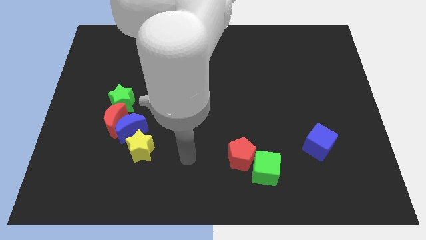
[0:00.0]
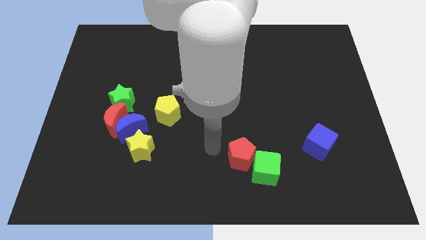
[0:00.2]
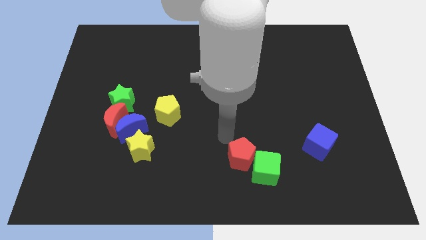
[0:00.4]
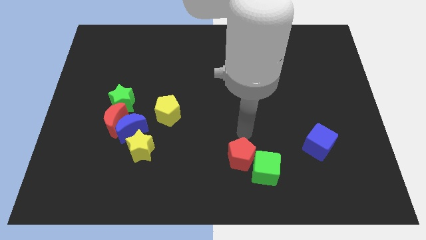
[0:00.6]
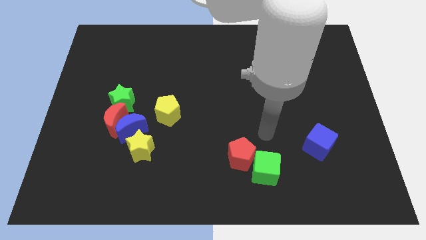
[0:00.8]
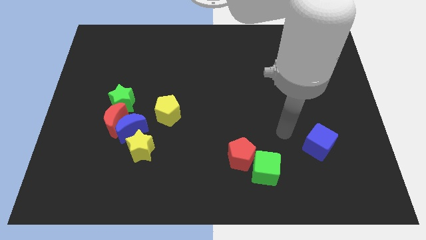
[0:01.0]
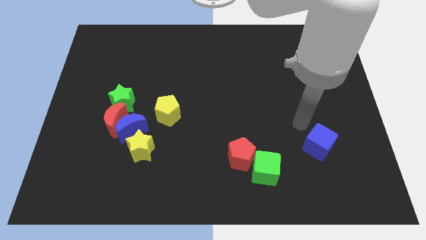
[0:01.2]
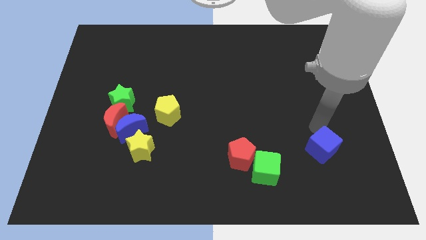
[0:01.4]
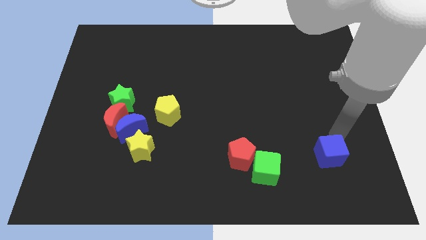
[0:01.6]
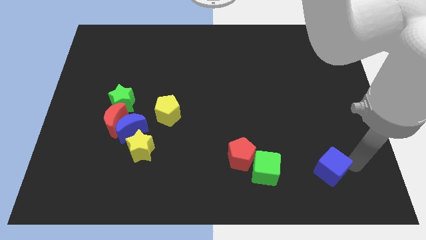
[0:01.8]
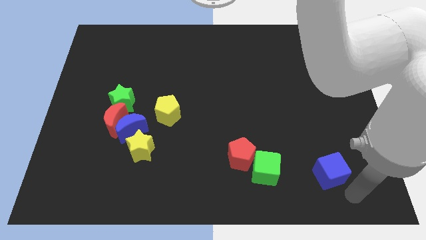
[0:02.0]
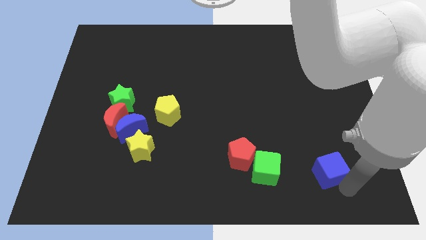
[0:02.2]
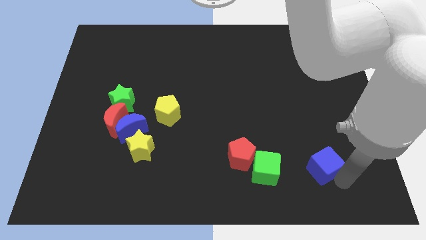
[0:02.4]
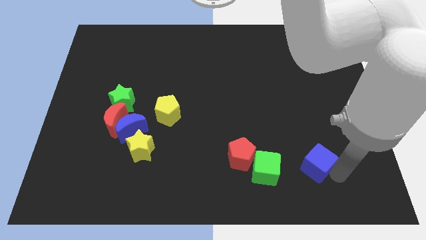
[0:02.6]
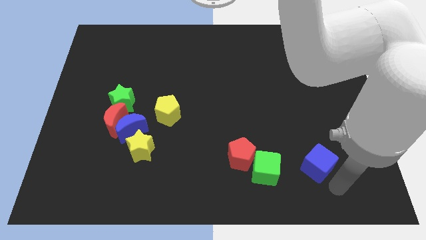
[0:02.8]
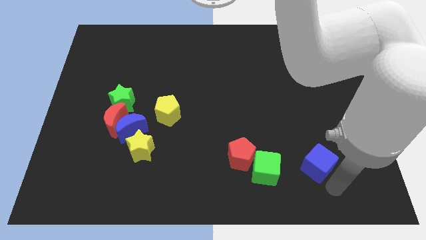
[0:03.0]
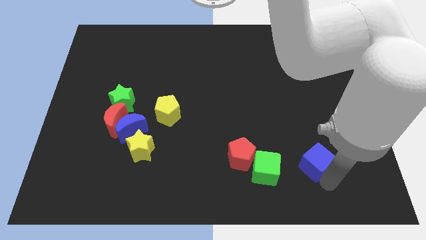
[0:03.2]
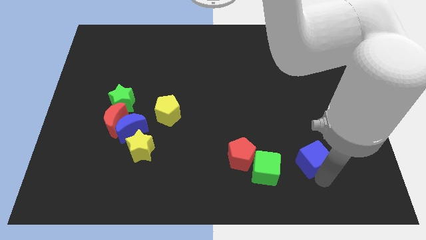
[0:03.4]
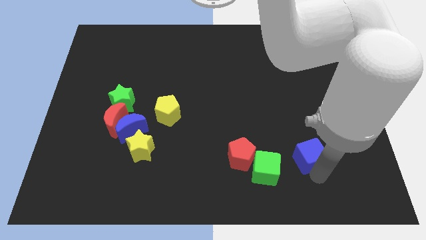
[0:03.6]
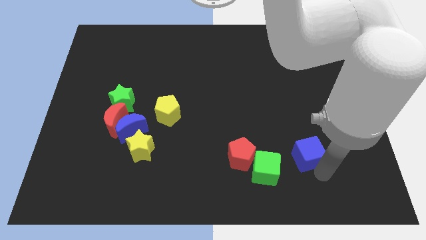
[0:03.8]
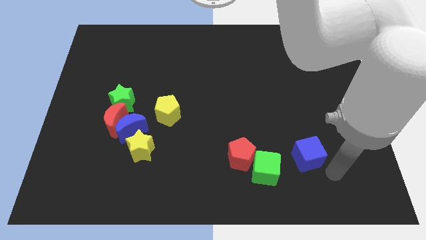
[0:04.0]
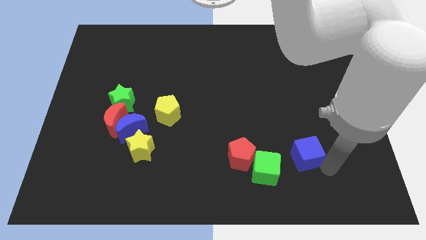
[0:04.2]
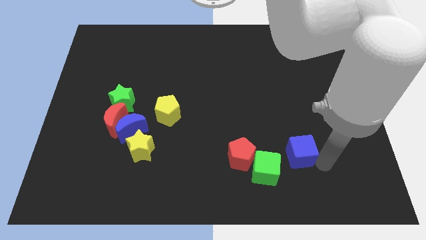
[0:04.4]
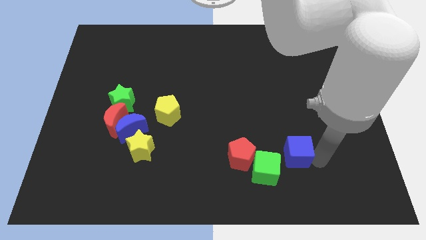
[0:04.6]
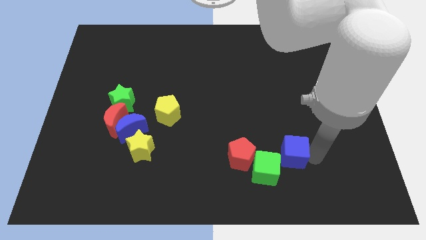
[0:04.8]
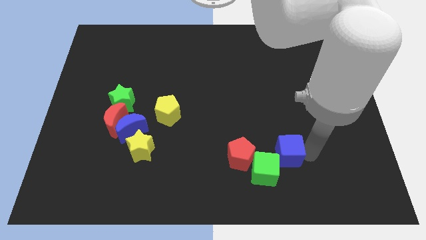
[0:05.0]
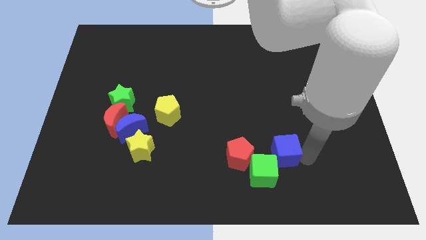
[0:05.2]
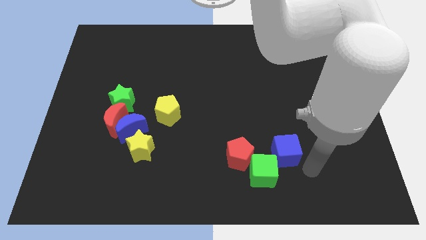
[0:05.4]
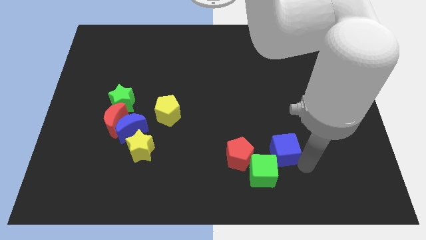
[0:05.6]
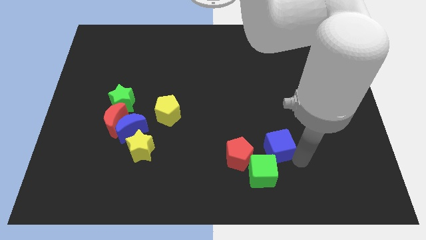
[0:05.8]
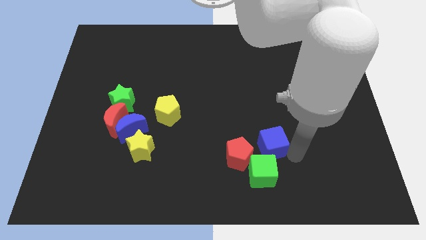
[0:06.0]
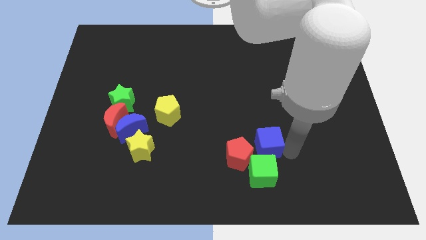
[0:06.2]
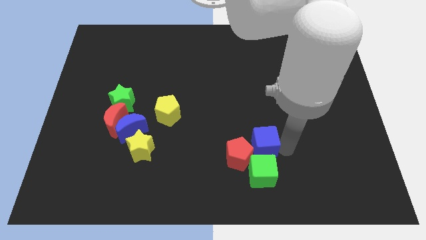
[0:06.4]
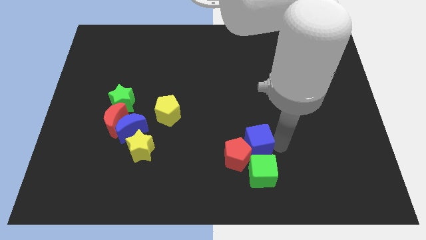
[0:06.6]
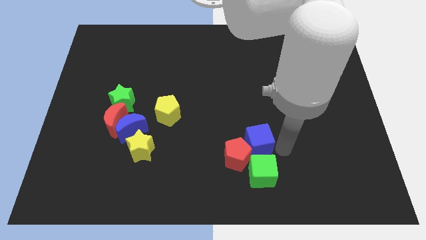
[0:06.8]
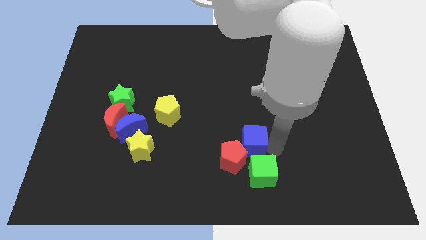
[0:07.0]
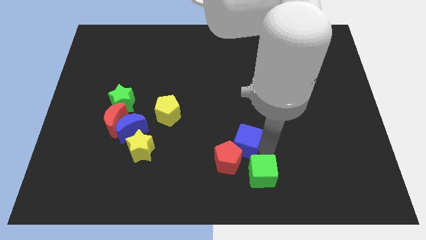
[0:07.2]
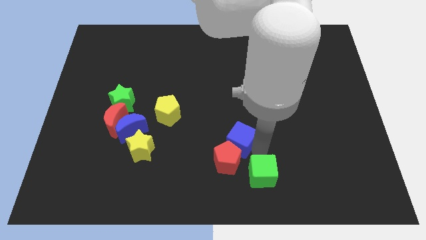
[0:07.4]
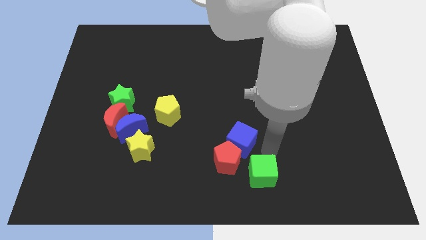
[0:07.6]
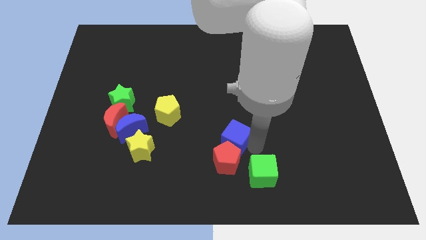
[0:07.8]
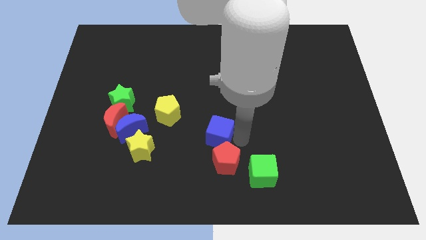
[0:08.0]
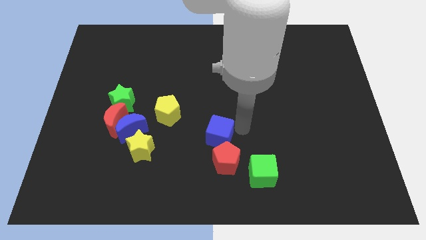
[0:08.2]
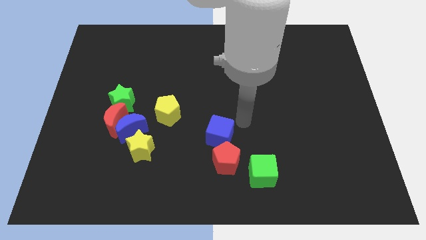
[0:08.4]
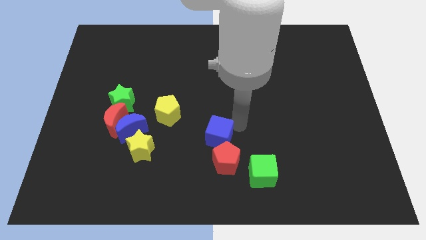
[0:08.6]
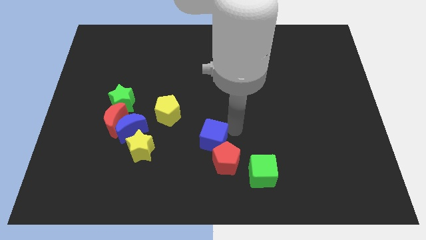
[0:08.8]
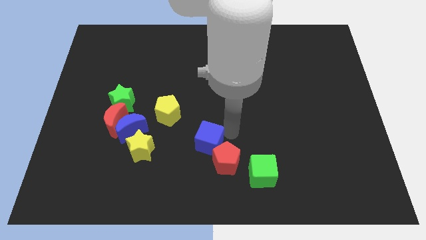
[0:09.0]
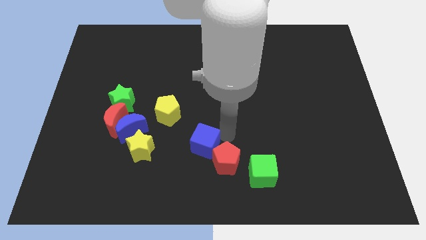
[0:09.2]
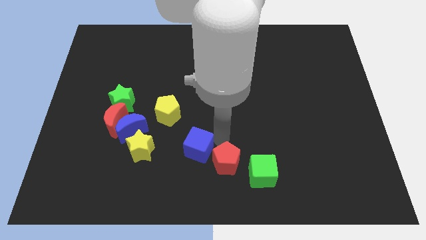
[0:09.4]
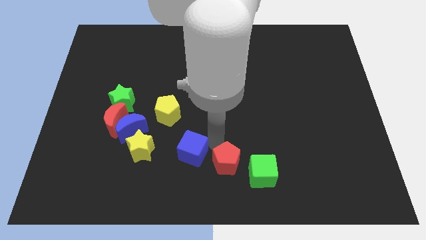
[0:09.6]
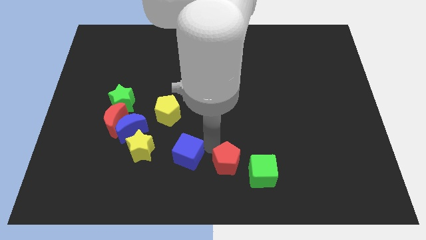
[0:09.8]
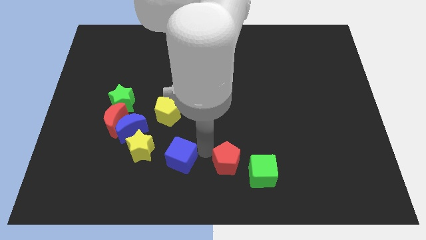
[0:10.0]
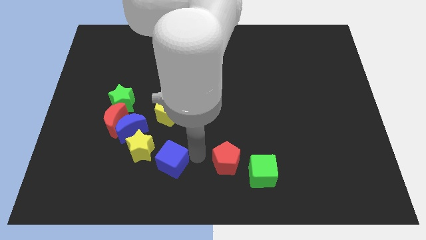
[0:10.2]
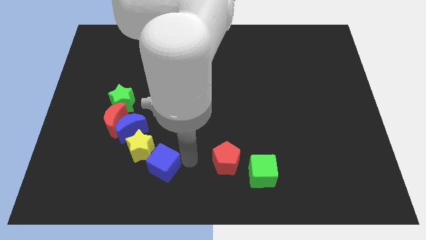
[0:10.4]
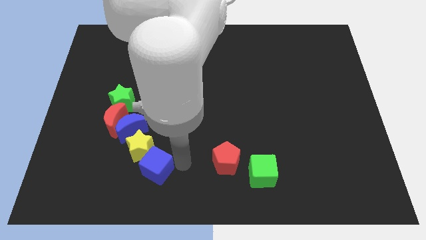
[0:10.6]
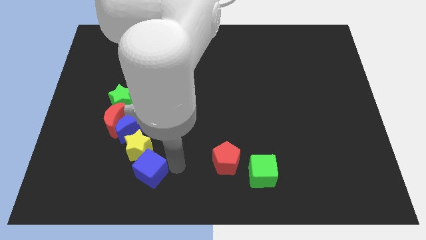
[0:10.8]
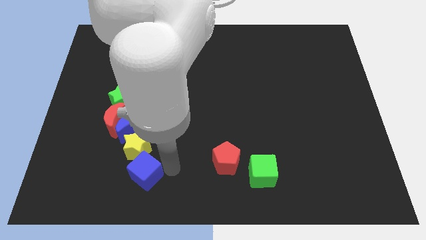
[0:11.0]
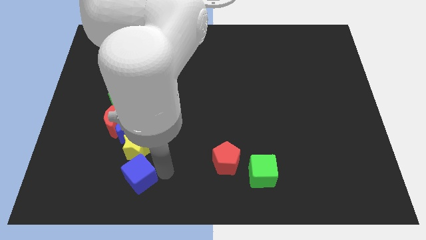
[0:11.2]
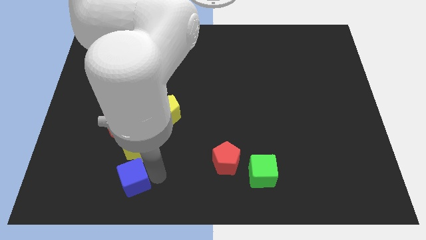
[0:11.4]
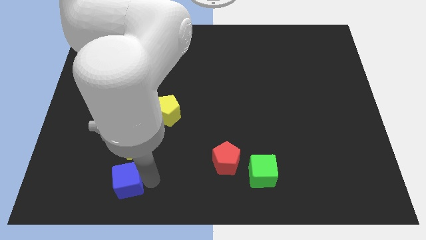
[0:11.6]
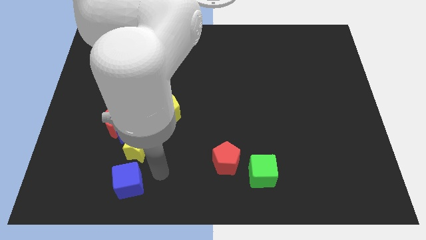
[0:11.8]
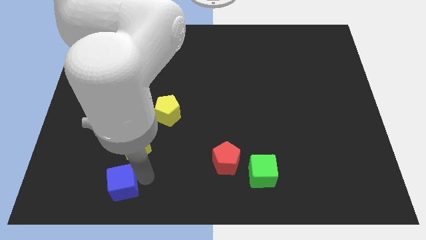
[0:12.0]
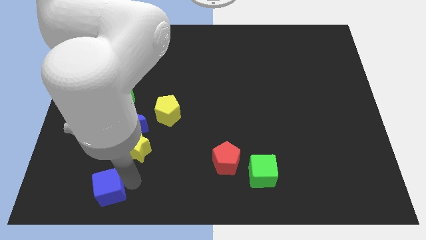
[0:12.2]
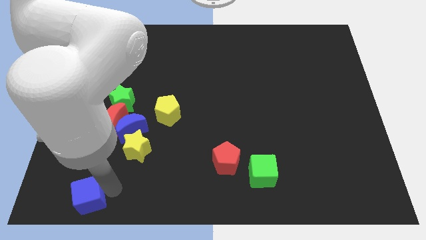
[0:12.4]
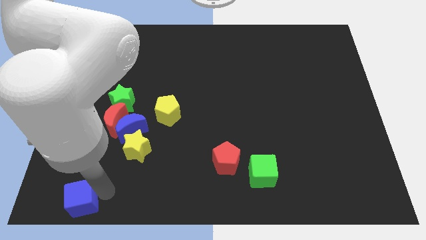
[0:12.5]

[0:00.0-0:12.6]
slide the blue cube to the bottom left
